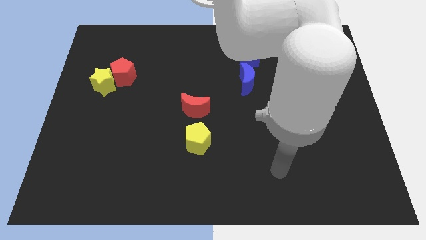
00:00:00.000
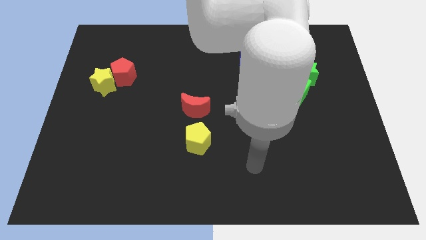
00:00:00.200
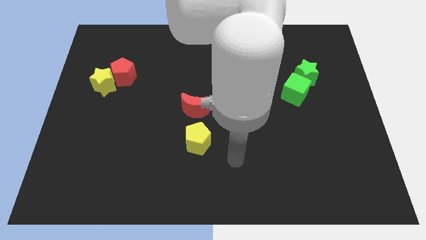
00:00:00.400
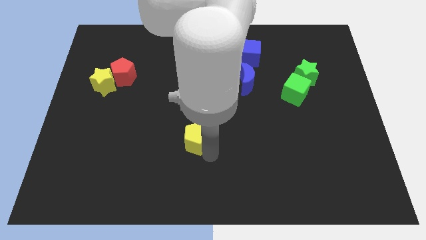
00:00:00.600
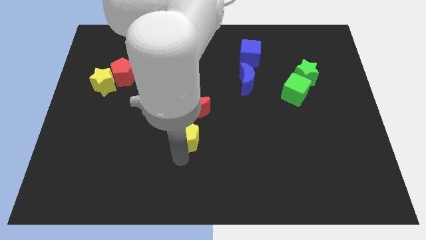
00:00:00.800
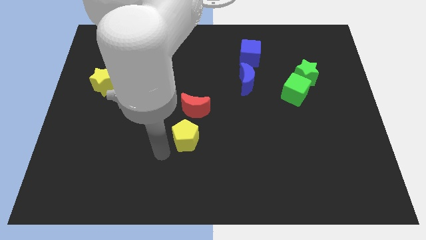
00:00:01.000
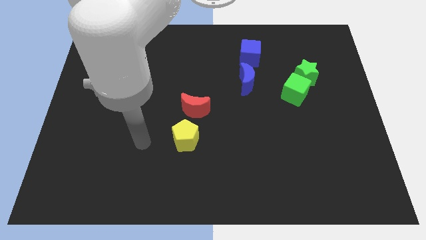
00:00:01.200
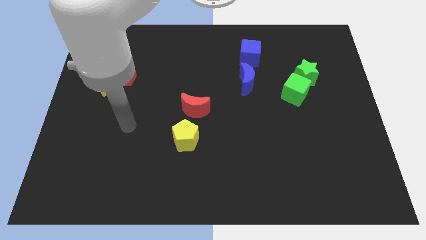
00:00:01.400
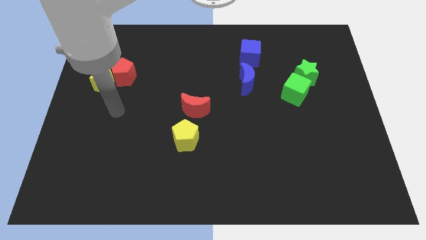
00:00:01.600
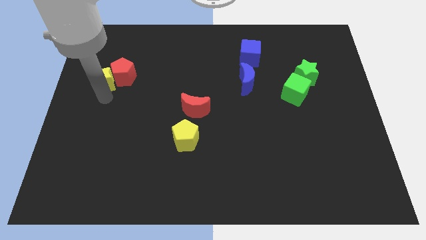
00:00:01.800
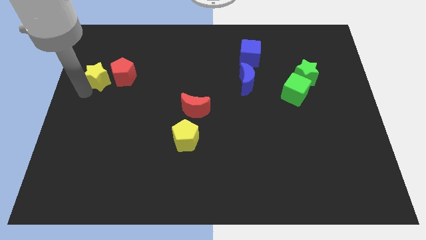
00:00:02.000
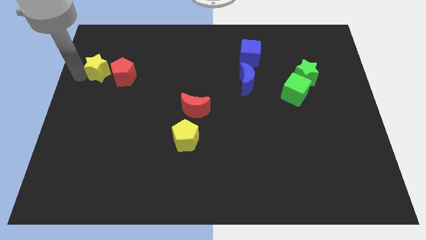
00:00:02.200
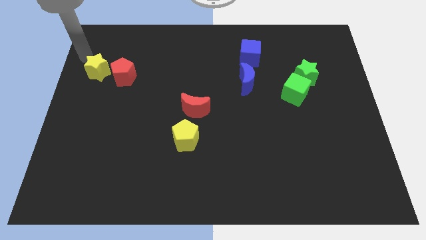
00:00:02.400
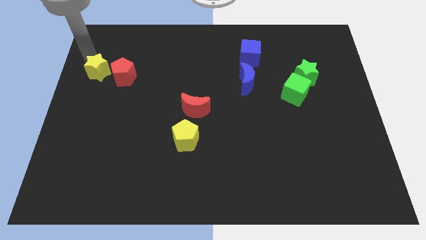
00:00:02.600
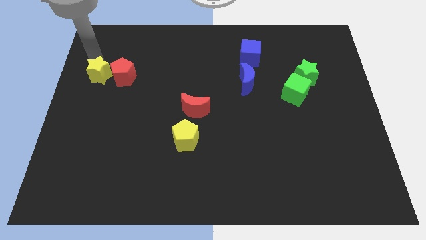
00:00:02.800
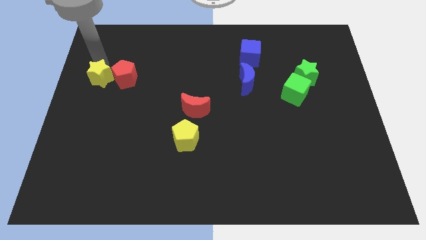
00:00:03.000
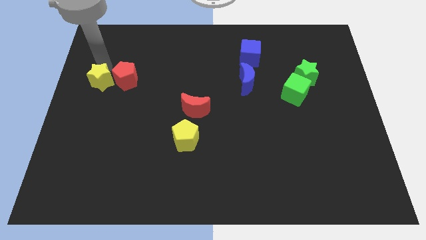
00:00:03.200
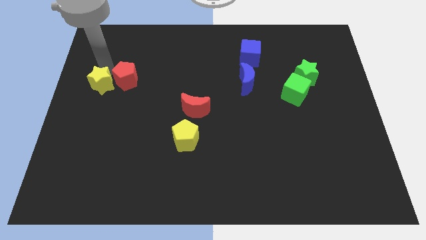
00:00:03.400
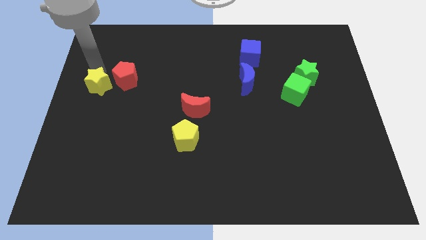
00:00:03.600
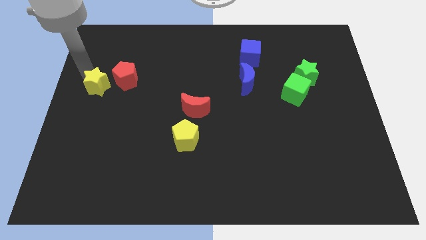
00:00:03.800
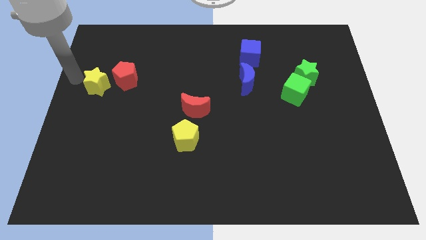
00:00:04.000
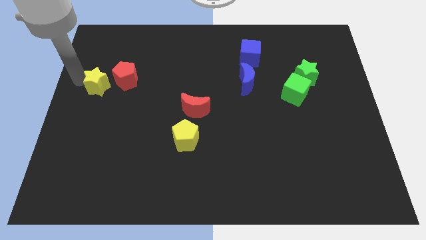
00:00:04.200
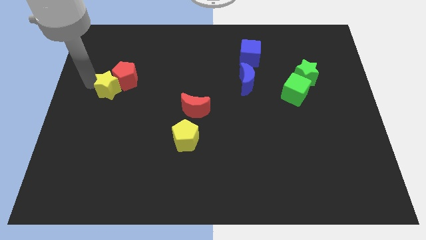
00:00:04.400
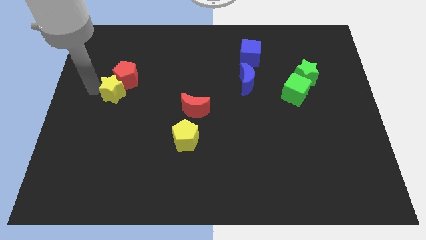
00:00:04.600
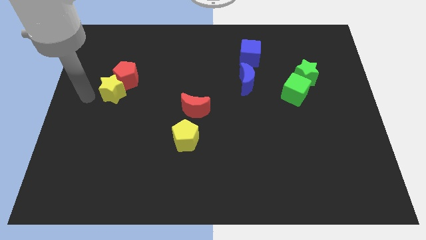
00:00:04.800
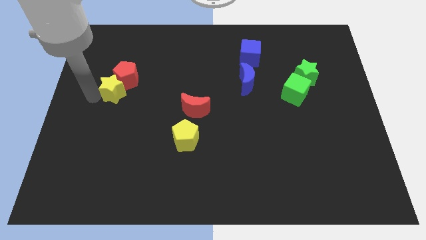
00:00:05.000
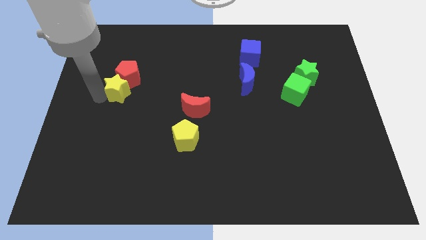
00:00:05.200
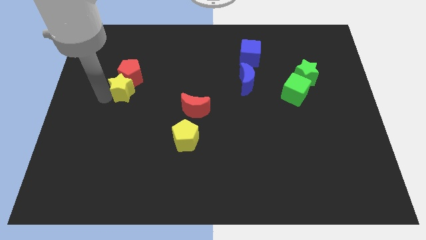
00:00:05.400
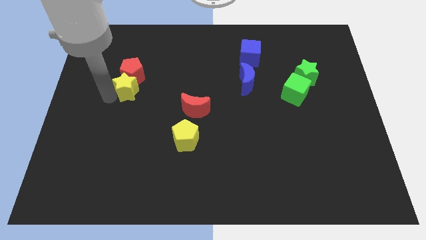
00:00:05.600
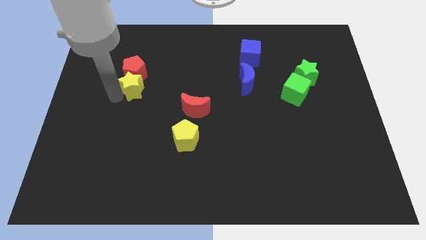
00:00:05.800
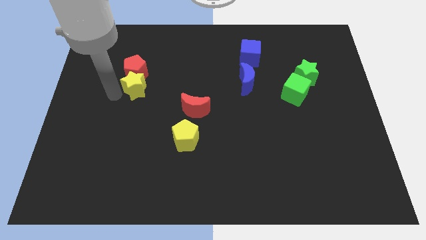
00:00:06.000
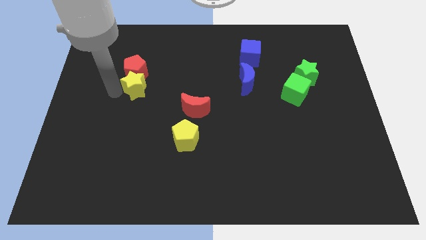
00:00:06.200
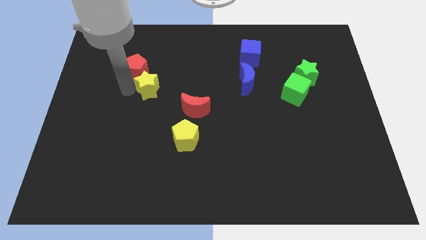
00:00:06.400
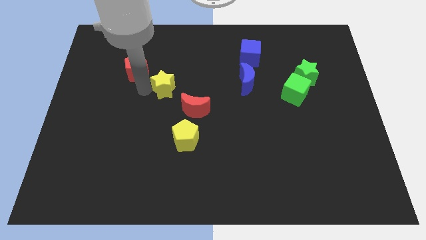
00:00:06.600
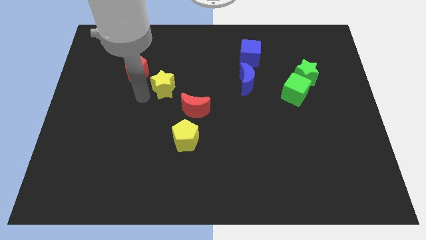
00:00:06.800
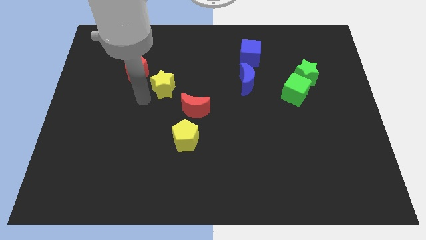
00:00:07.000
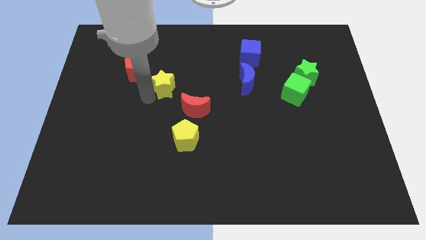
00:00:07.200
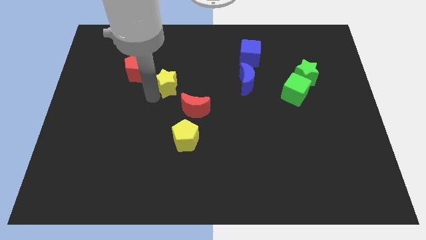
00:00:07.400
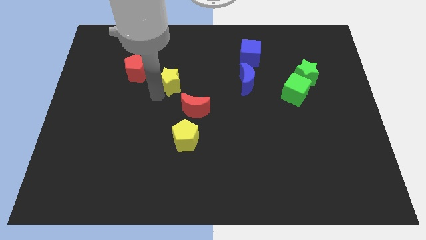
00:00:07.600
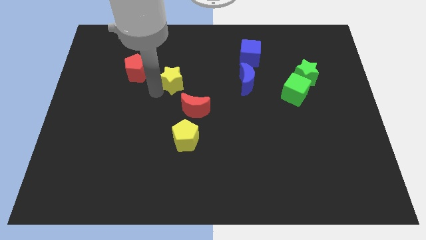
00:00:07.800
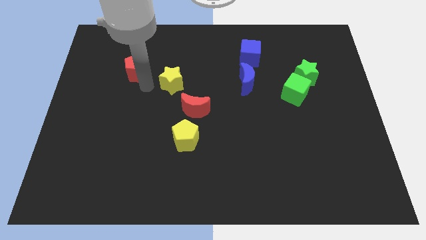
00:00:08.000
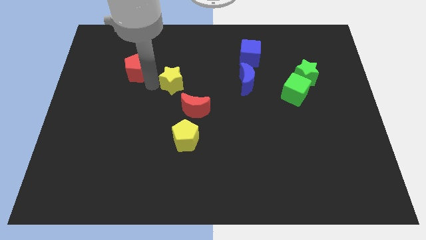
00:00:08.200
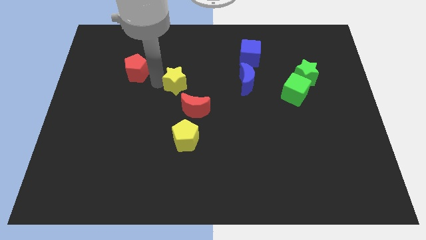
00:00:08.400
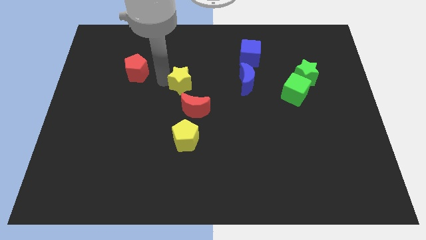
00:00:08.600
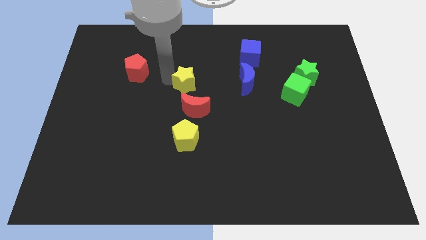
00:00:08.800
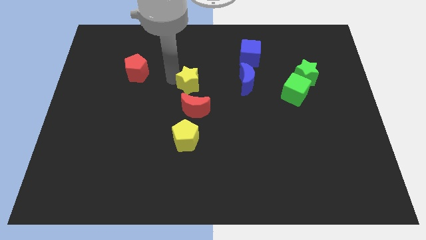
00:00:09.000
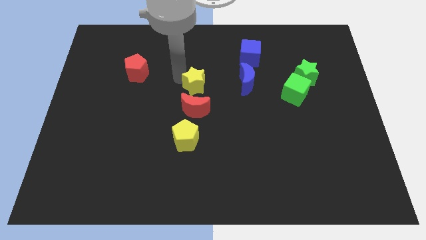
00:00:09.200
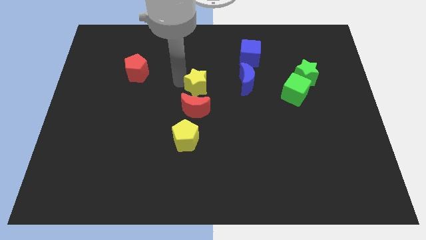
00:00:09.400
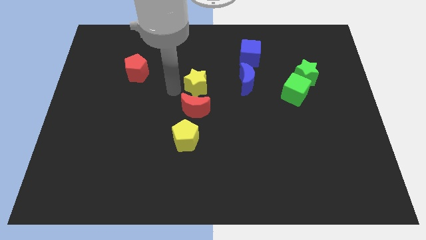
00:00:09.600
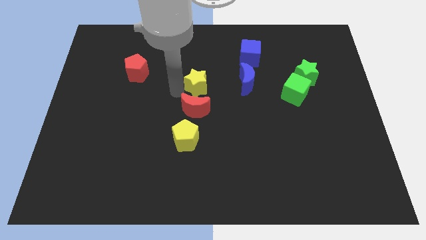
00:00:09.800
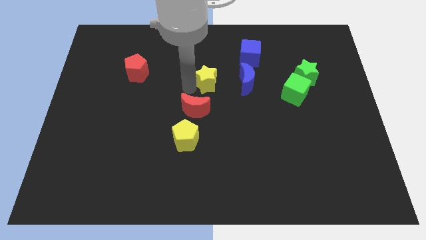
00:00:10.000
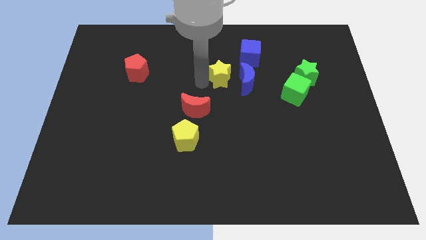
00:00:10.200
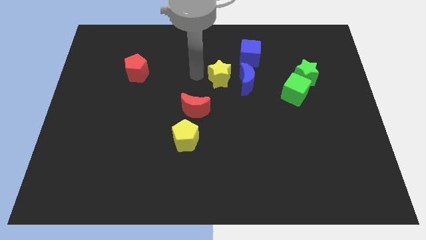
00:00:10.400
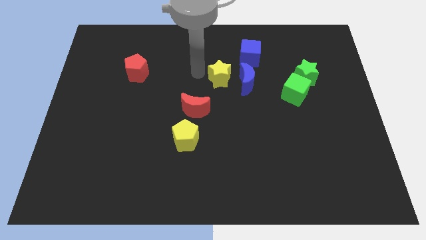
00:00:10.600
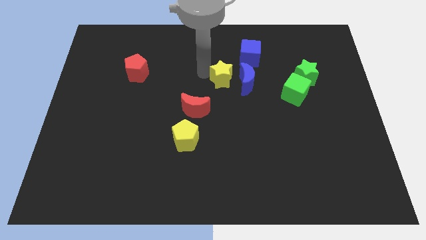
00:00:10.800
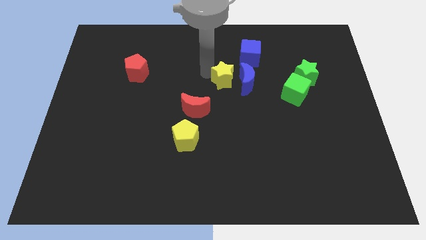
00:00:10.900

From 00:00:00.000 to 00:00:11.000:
move the yellow star to the blue moon

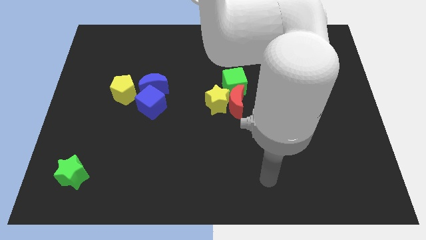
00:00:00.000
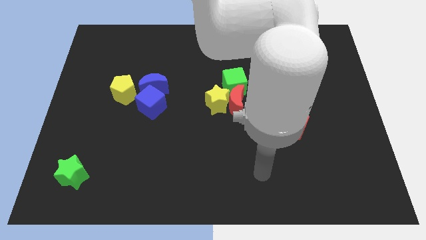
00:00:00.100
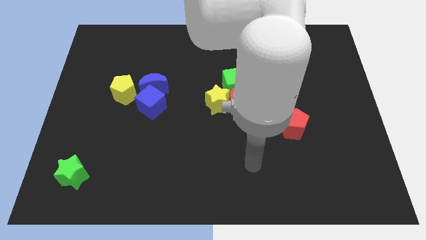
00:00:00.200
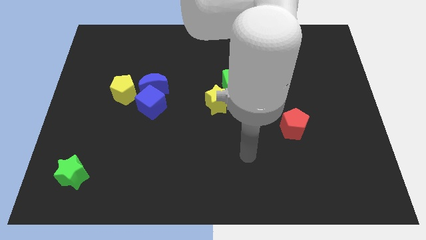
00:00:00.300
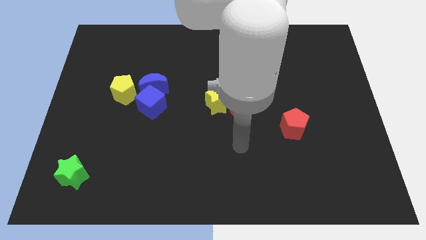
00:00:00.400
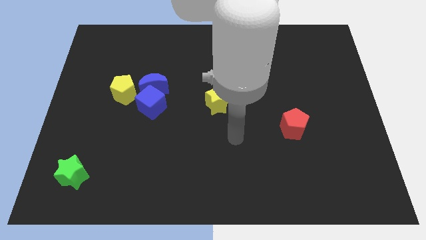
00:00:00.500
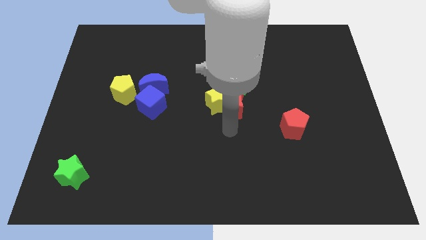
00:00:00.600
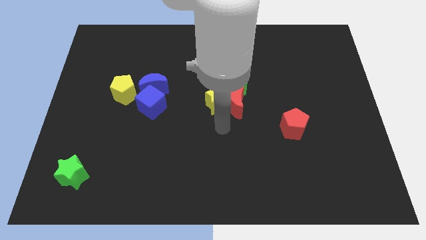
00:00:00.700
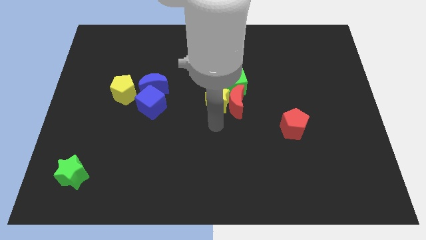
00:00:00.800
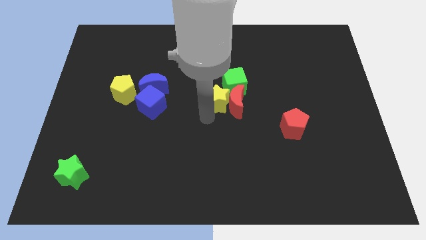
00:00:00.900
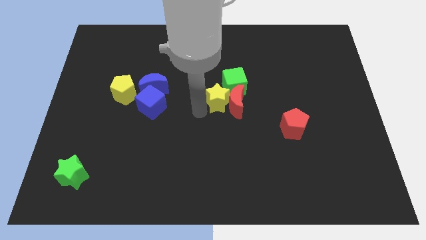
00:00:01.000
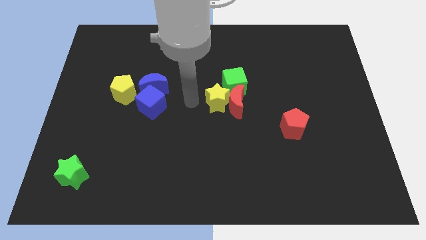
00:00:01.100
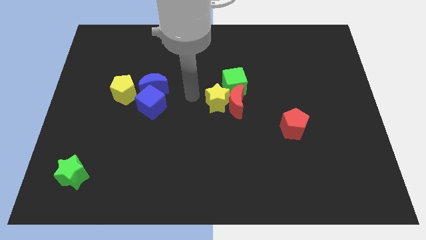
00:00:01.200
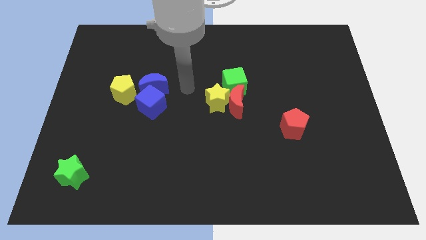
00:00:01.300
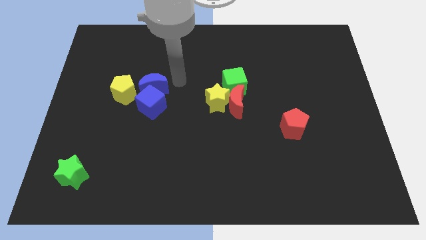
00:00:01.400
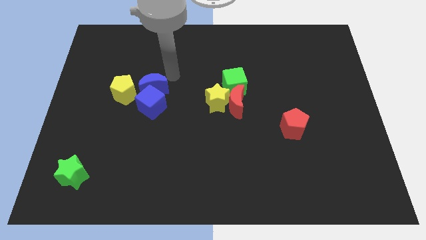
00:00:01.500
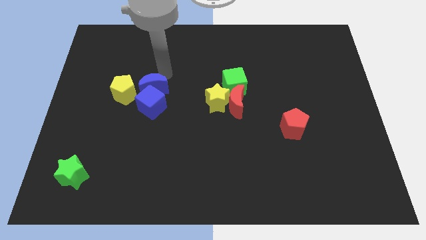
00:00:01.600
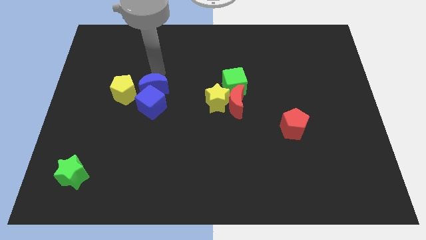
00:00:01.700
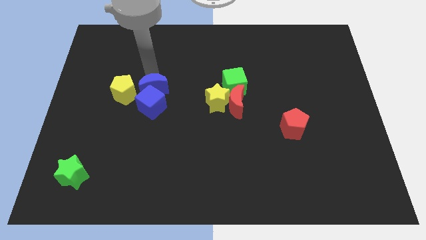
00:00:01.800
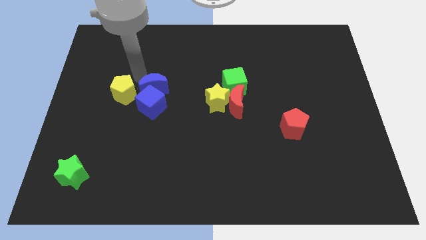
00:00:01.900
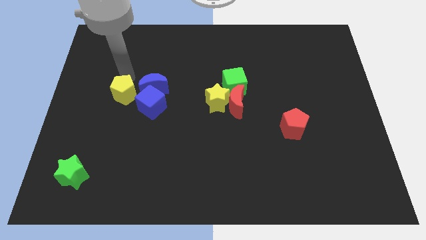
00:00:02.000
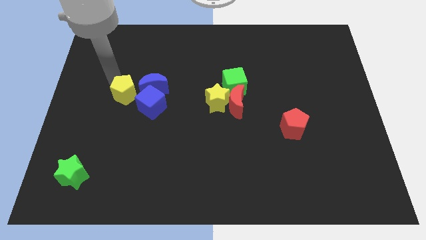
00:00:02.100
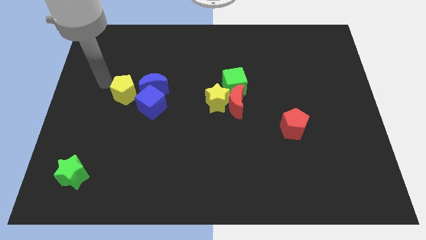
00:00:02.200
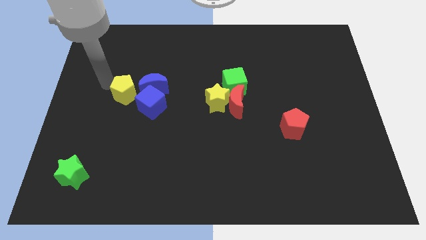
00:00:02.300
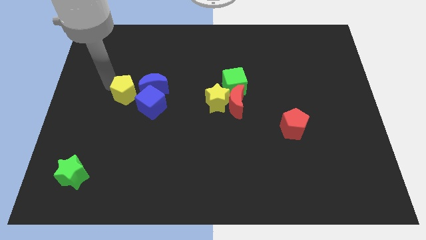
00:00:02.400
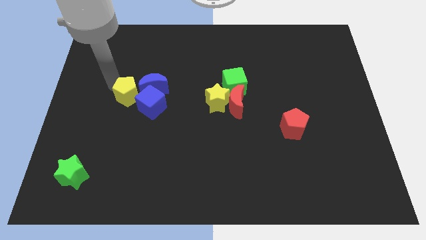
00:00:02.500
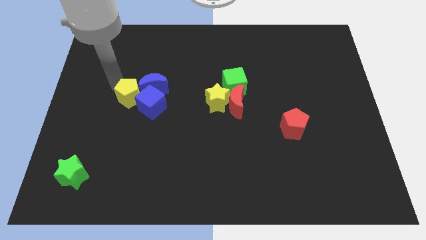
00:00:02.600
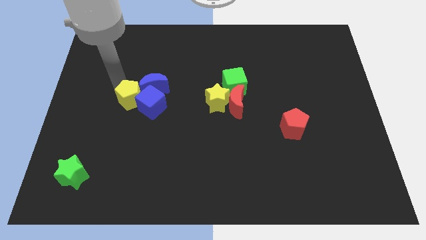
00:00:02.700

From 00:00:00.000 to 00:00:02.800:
put the yellow pentagon to the blue cube
